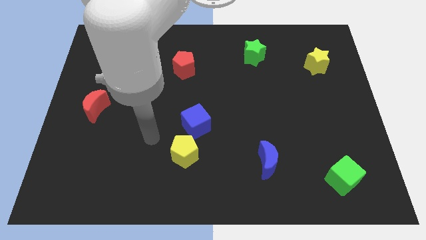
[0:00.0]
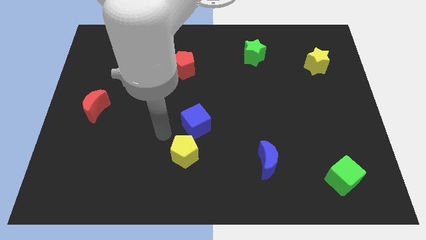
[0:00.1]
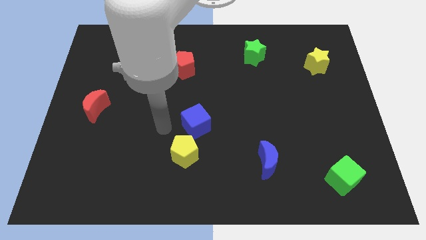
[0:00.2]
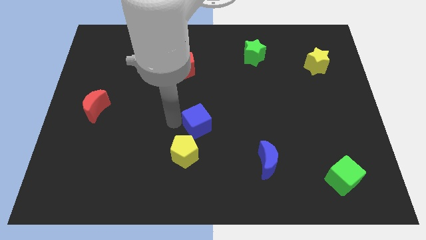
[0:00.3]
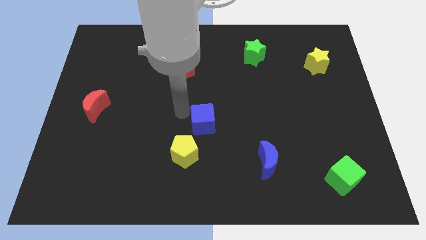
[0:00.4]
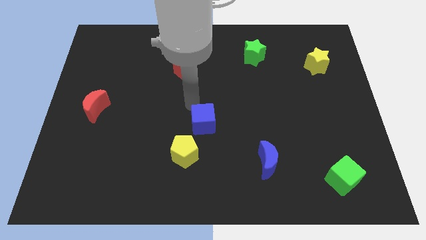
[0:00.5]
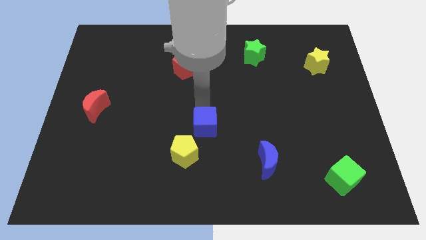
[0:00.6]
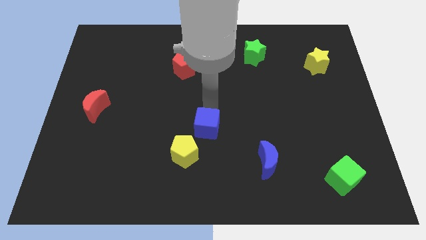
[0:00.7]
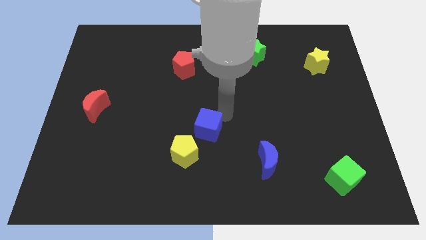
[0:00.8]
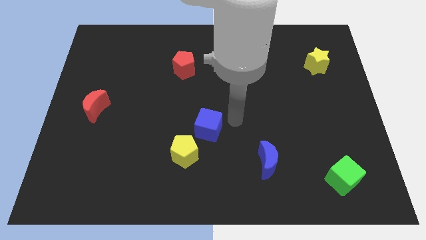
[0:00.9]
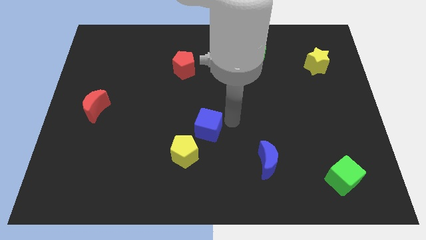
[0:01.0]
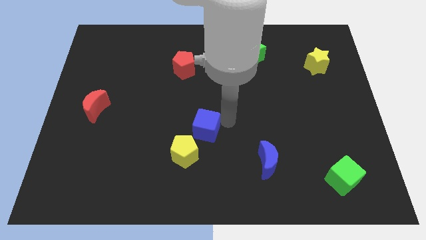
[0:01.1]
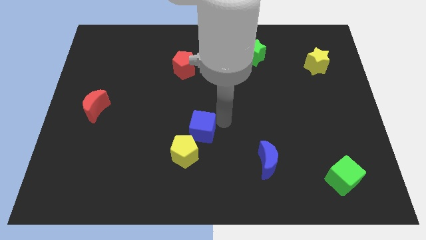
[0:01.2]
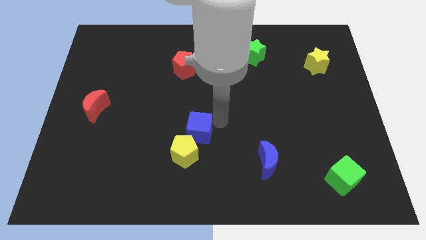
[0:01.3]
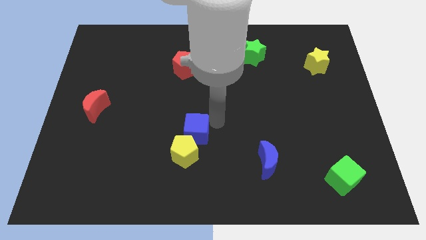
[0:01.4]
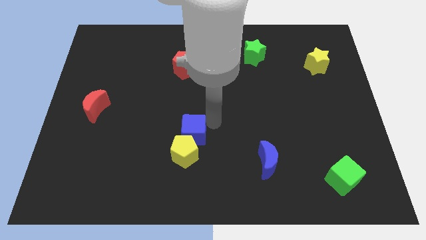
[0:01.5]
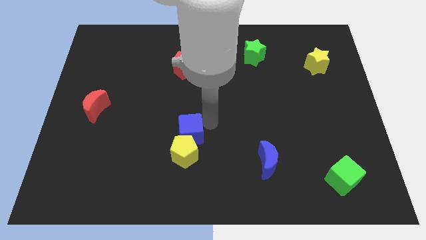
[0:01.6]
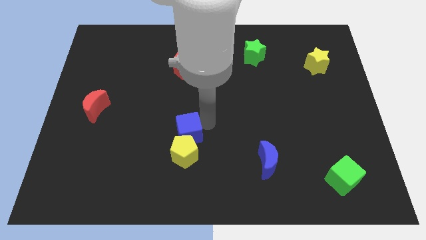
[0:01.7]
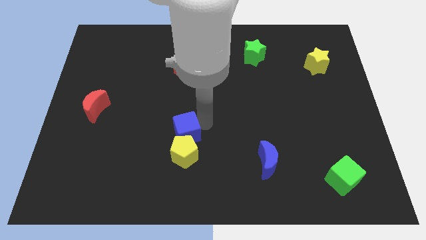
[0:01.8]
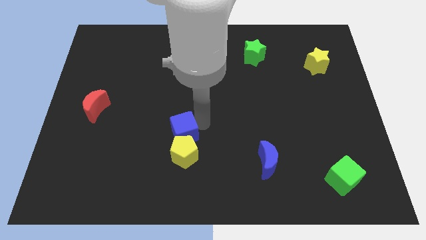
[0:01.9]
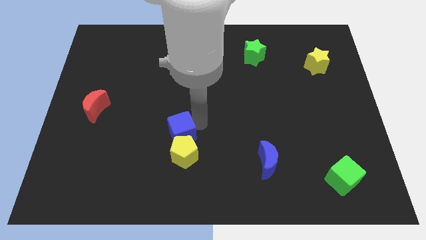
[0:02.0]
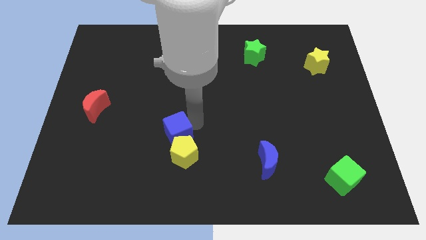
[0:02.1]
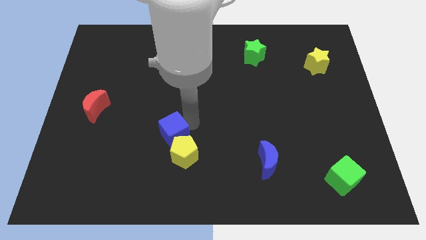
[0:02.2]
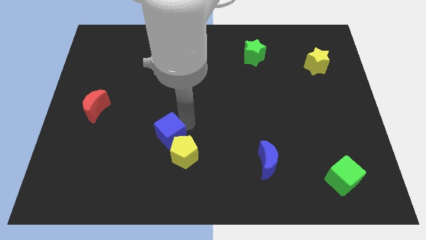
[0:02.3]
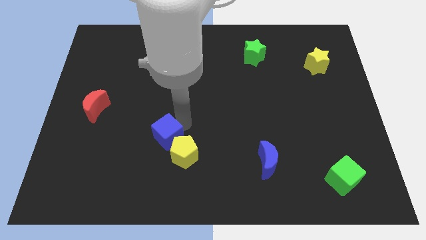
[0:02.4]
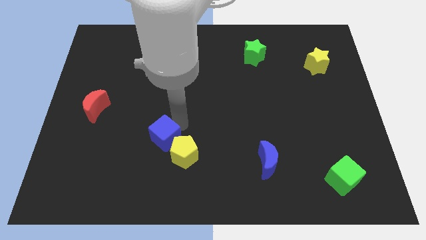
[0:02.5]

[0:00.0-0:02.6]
push the blue cube somewhat downwards and to the left diagonally

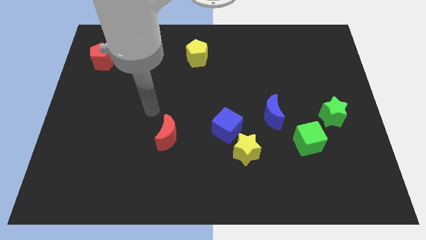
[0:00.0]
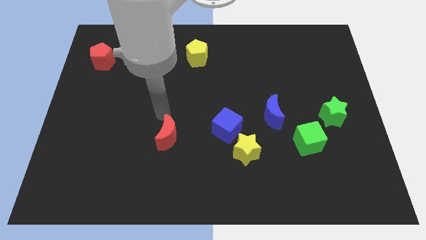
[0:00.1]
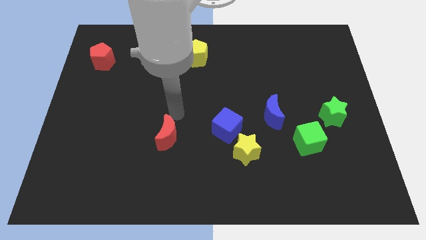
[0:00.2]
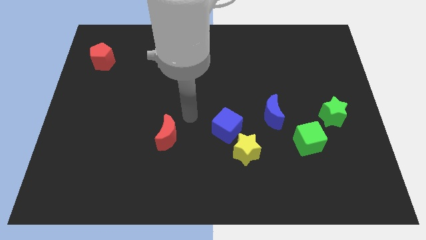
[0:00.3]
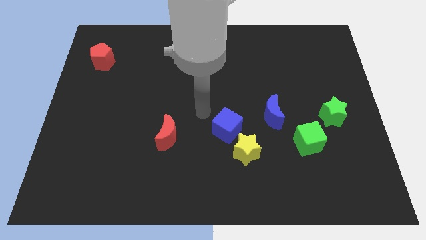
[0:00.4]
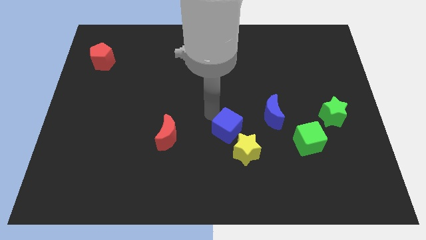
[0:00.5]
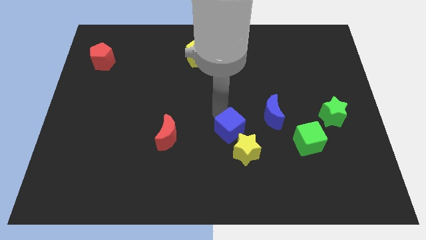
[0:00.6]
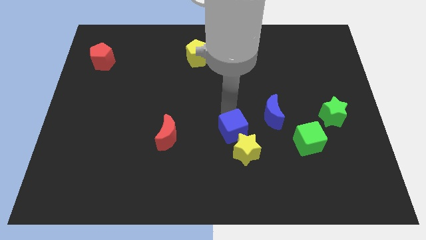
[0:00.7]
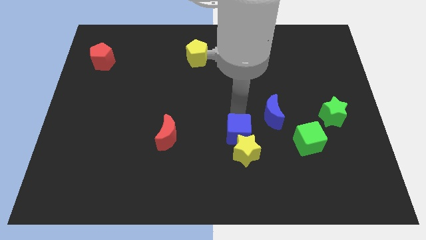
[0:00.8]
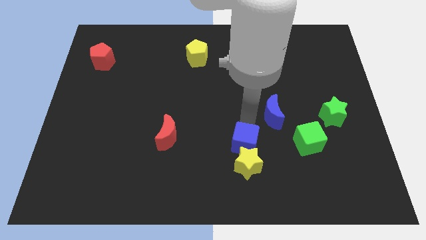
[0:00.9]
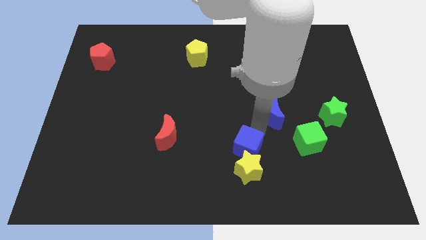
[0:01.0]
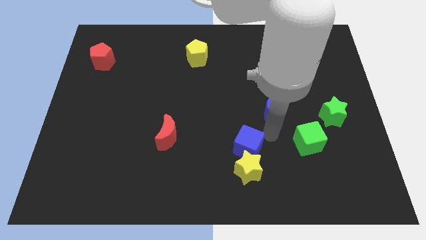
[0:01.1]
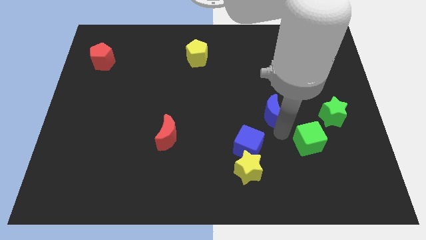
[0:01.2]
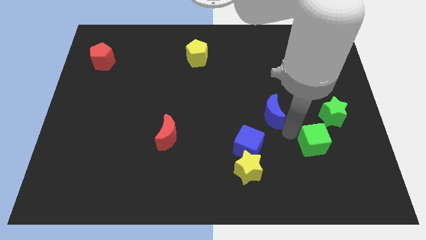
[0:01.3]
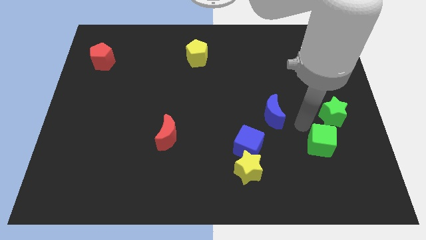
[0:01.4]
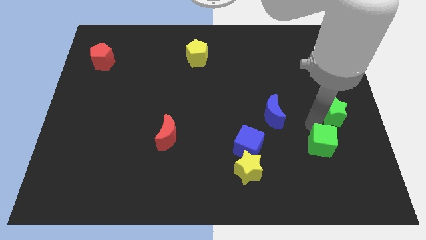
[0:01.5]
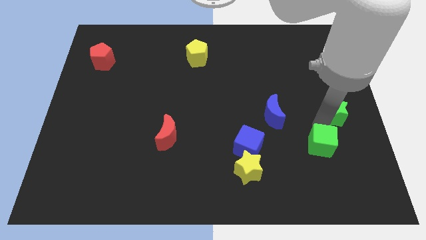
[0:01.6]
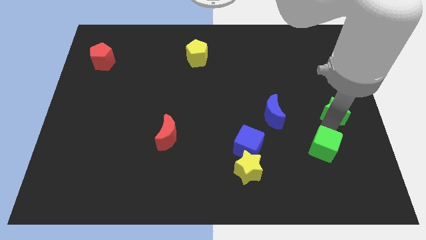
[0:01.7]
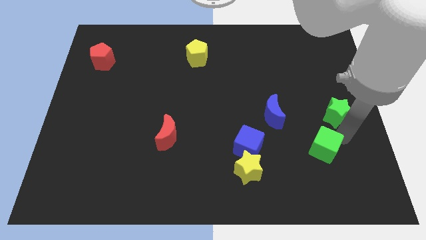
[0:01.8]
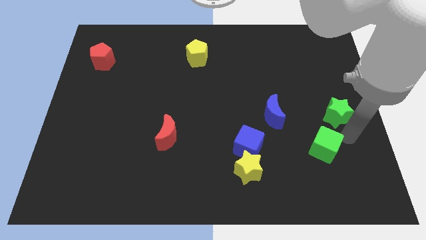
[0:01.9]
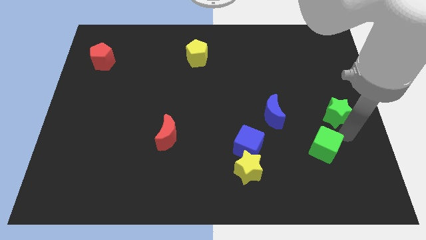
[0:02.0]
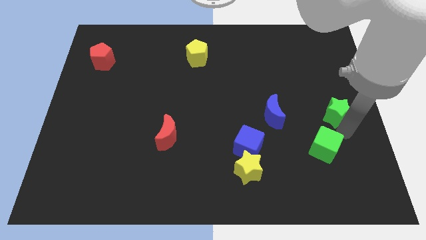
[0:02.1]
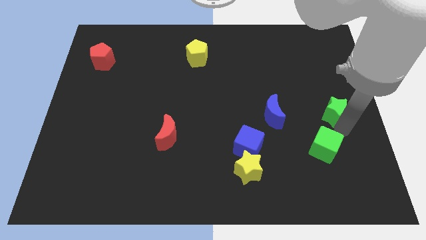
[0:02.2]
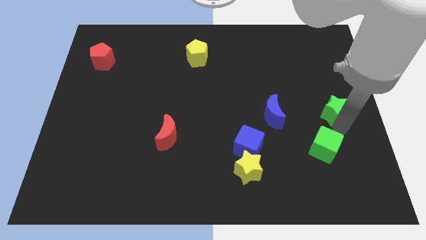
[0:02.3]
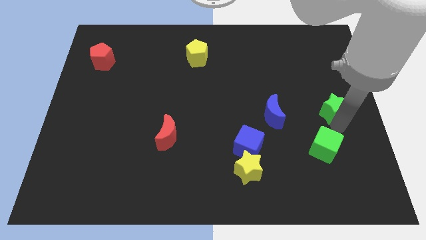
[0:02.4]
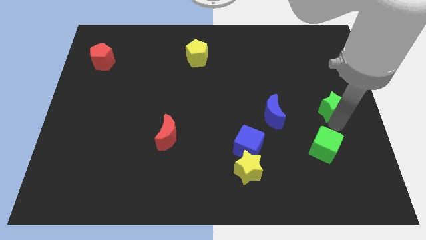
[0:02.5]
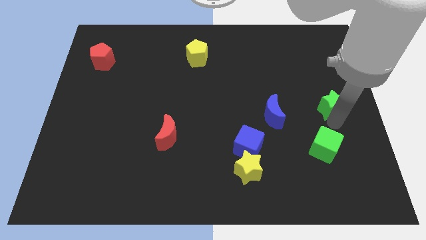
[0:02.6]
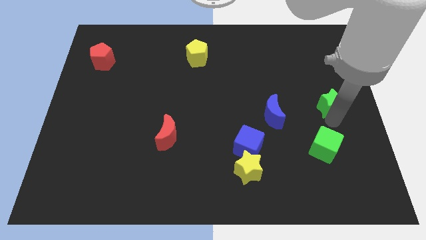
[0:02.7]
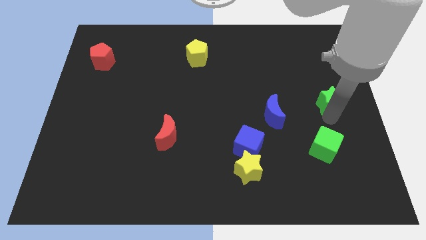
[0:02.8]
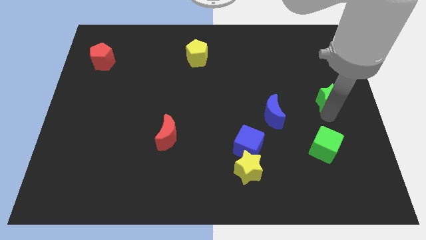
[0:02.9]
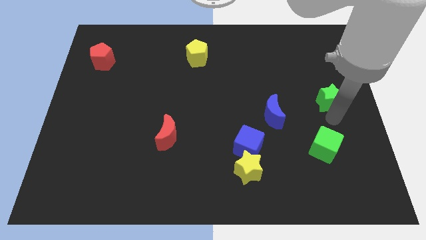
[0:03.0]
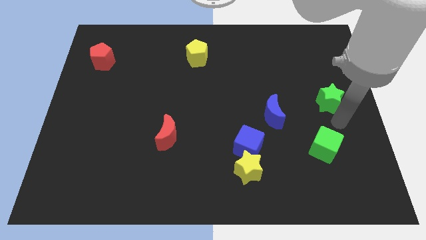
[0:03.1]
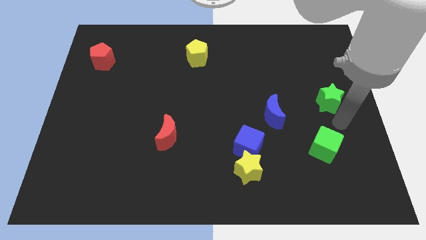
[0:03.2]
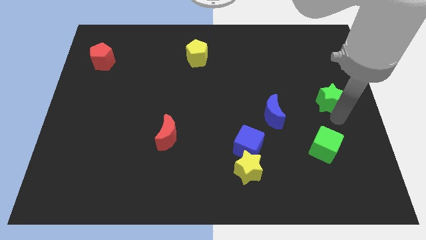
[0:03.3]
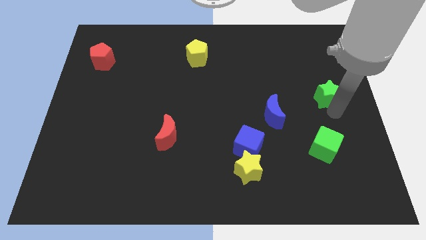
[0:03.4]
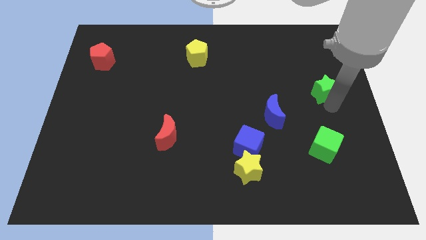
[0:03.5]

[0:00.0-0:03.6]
slightly move the green star up

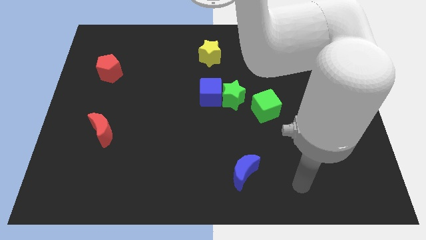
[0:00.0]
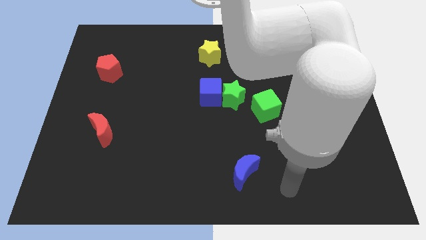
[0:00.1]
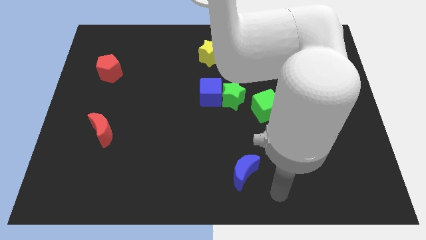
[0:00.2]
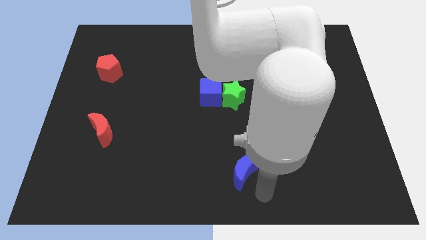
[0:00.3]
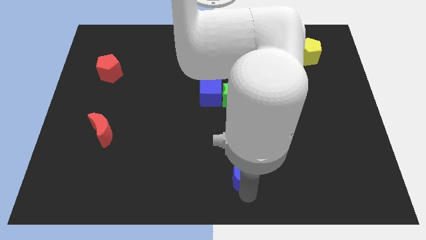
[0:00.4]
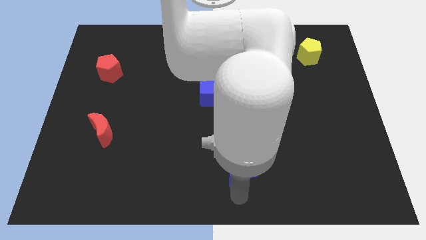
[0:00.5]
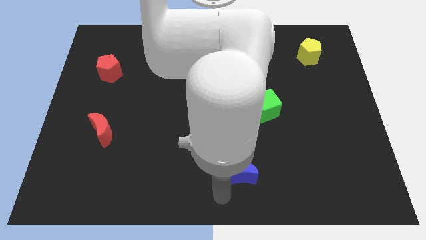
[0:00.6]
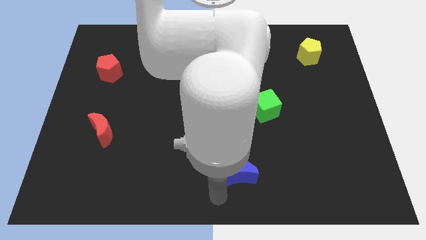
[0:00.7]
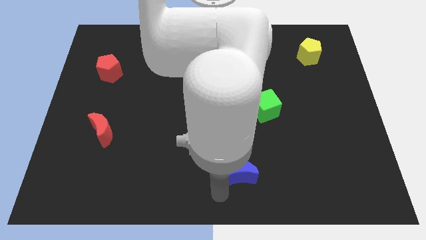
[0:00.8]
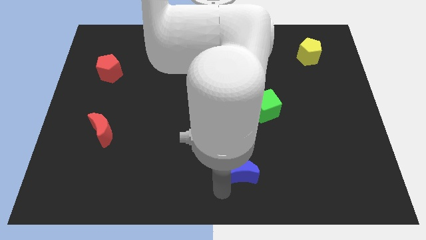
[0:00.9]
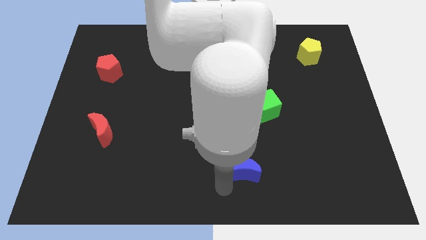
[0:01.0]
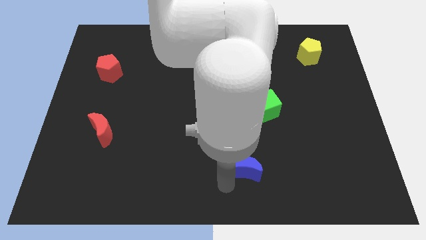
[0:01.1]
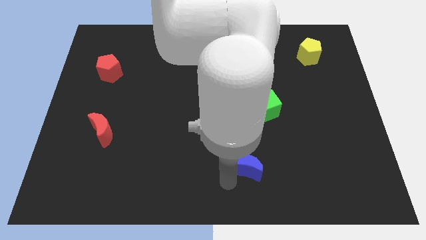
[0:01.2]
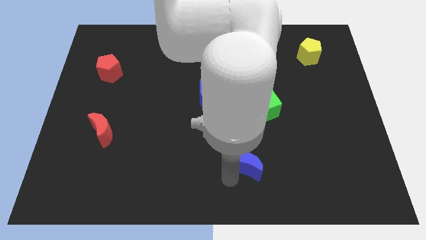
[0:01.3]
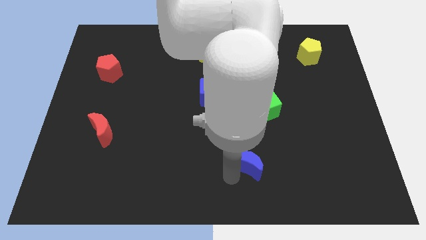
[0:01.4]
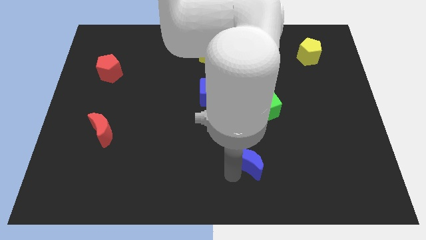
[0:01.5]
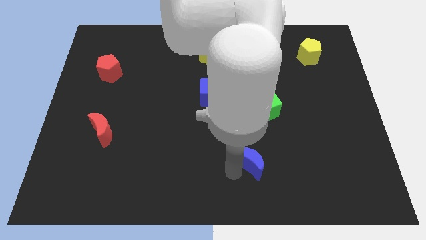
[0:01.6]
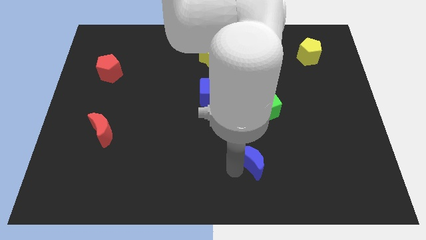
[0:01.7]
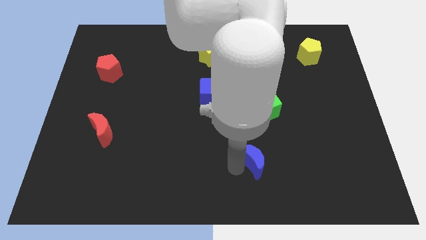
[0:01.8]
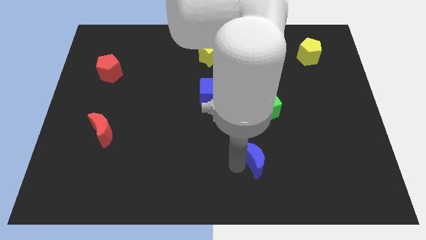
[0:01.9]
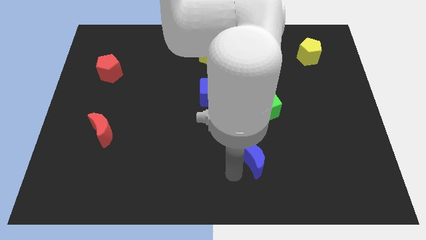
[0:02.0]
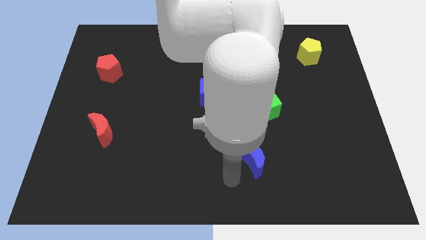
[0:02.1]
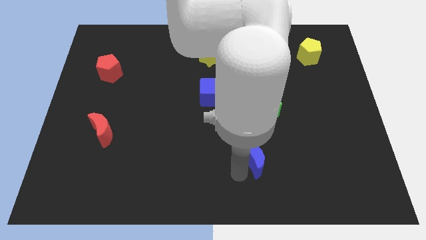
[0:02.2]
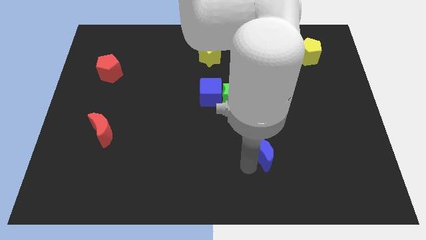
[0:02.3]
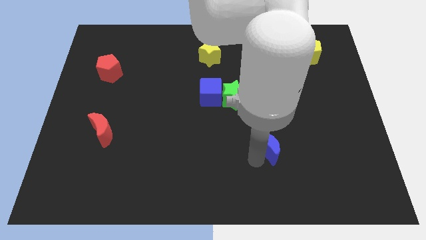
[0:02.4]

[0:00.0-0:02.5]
slightly move the blue moon diagonally upwards and right
